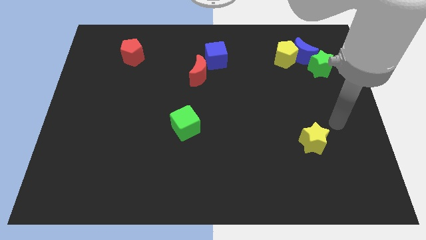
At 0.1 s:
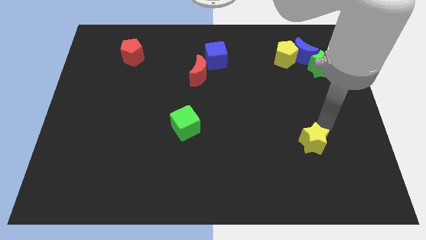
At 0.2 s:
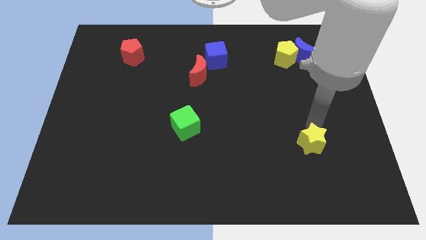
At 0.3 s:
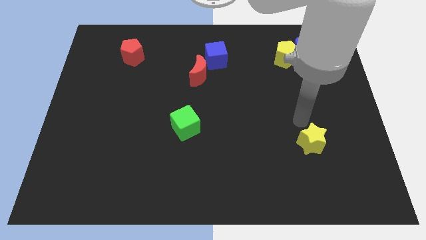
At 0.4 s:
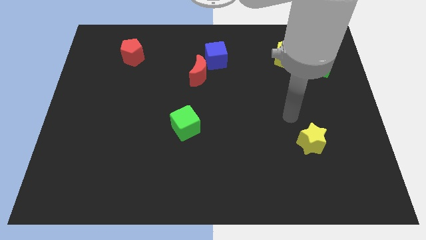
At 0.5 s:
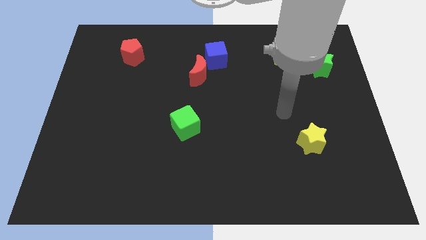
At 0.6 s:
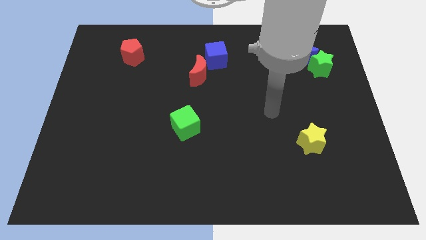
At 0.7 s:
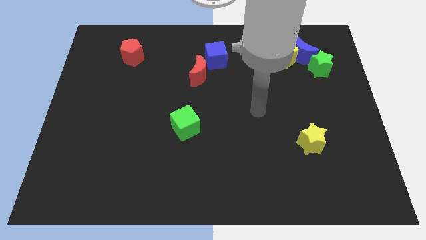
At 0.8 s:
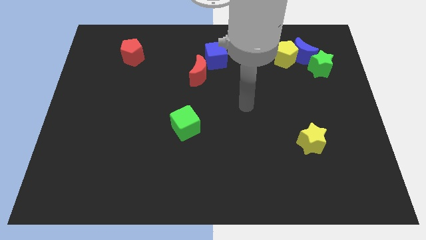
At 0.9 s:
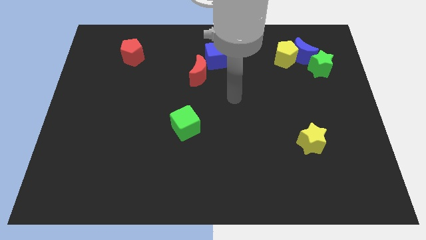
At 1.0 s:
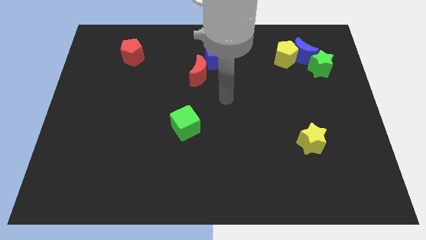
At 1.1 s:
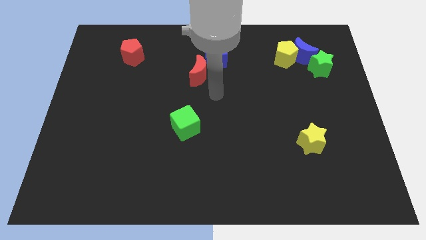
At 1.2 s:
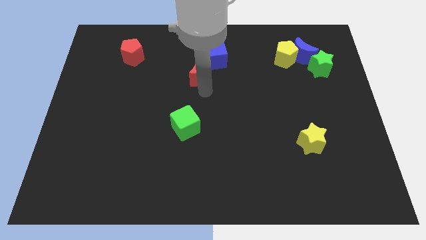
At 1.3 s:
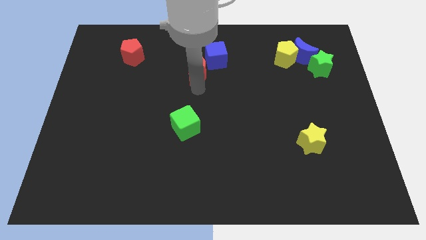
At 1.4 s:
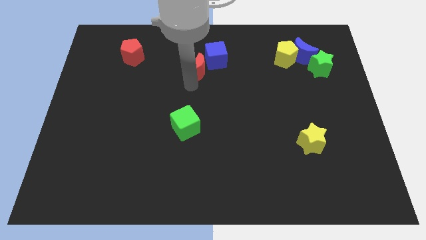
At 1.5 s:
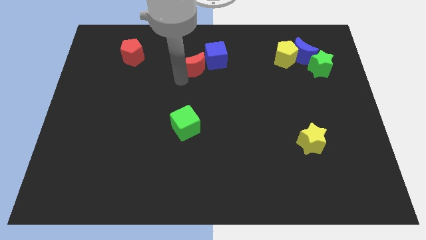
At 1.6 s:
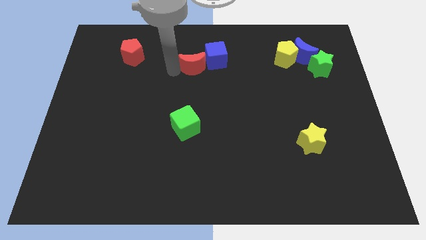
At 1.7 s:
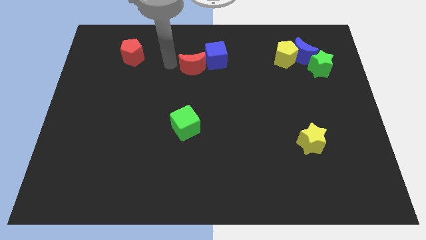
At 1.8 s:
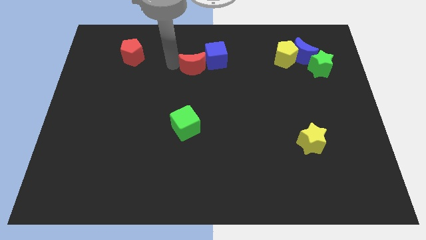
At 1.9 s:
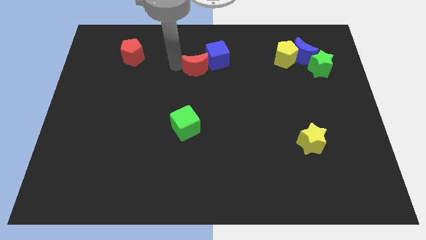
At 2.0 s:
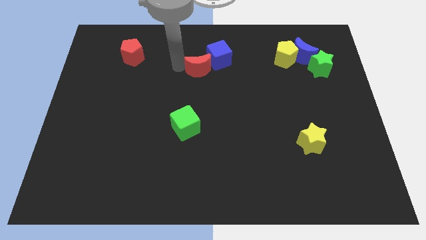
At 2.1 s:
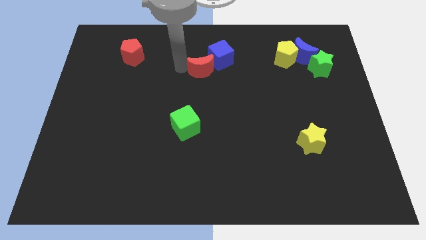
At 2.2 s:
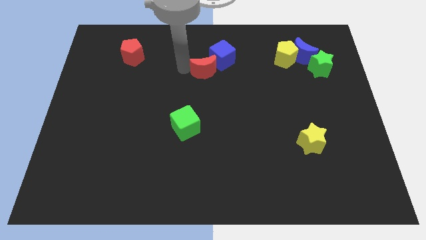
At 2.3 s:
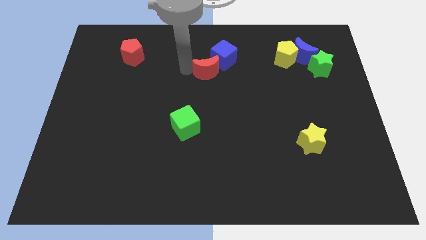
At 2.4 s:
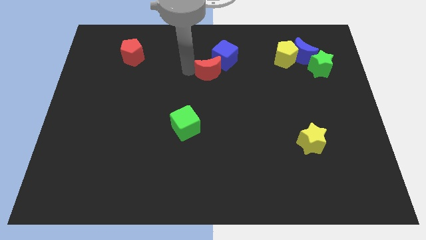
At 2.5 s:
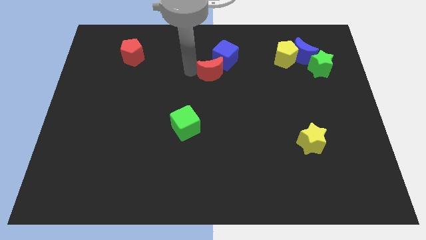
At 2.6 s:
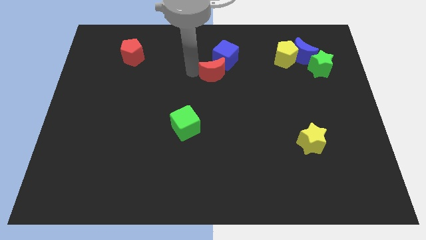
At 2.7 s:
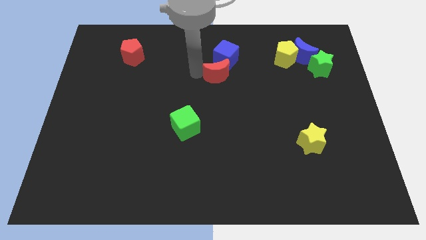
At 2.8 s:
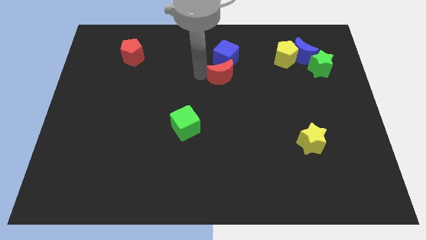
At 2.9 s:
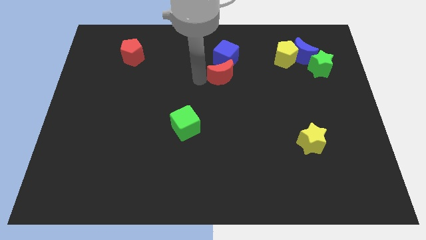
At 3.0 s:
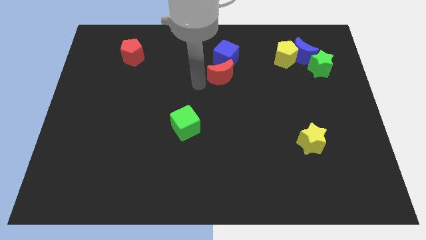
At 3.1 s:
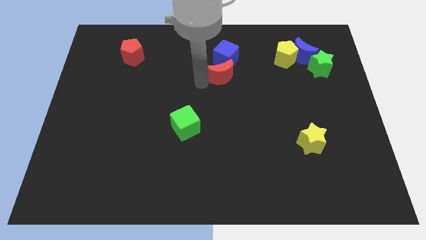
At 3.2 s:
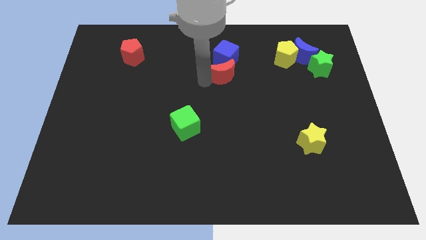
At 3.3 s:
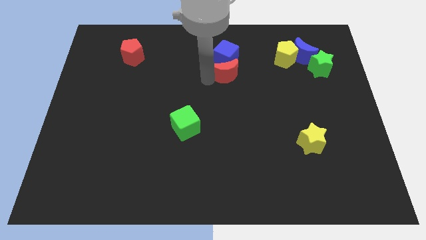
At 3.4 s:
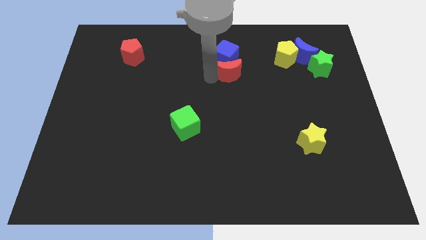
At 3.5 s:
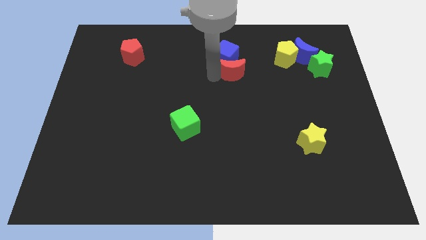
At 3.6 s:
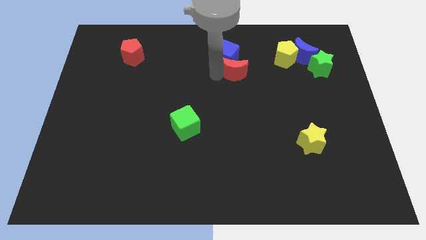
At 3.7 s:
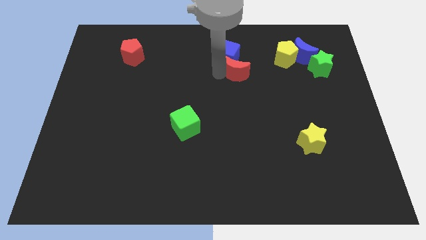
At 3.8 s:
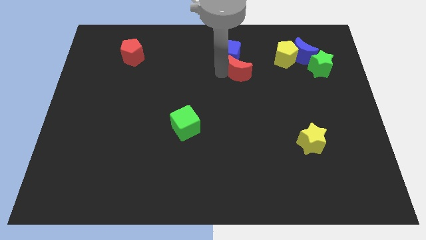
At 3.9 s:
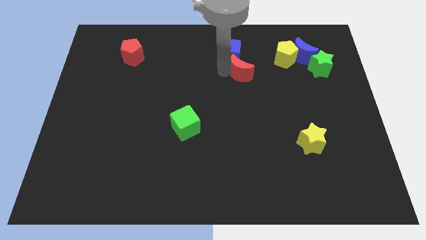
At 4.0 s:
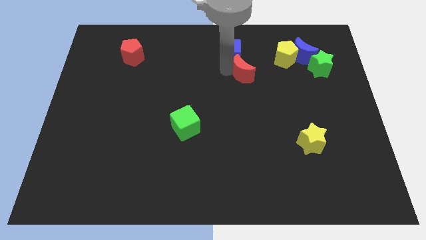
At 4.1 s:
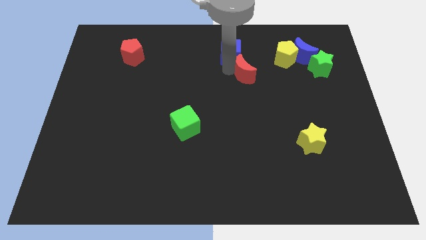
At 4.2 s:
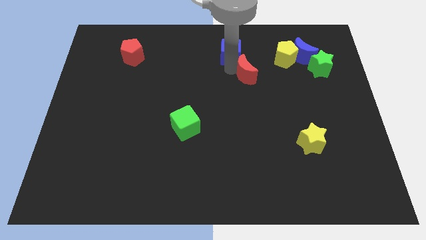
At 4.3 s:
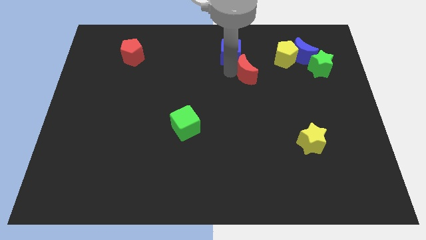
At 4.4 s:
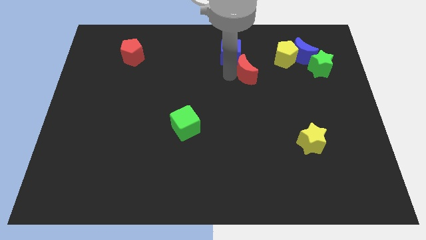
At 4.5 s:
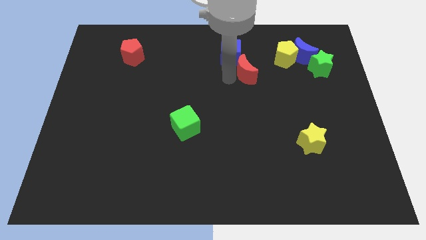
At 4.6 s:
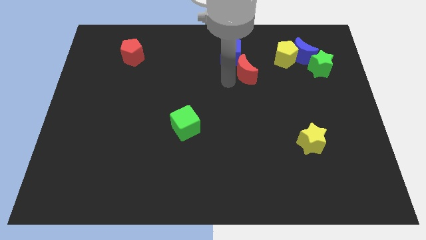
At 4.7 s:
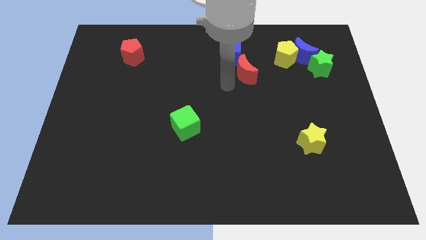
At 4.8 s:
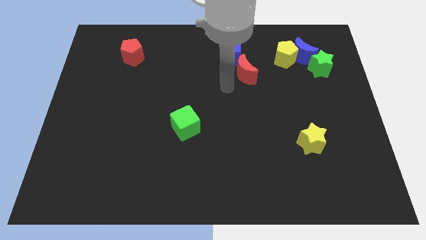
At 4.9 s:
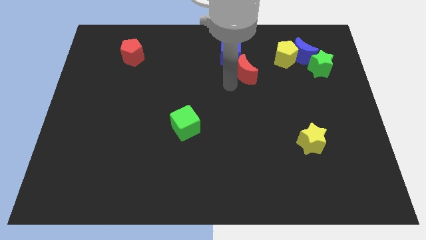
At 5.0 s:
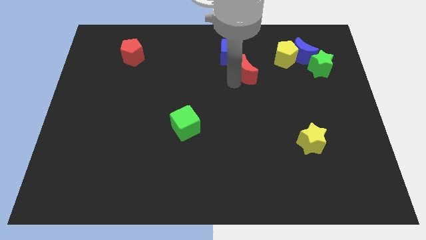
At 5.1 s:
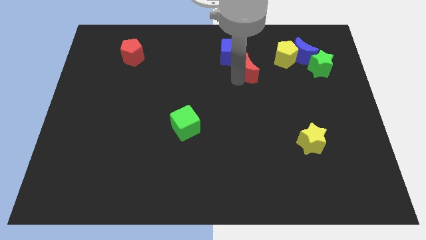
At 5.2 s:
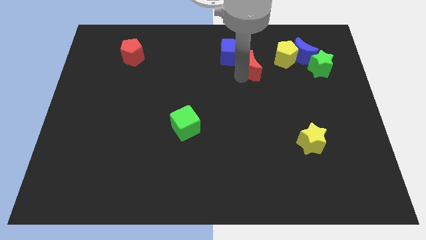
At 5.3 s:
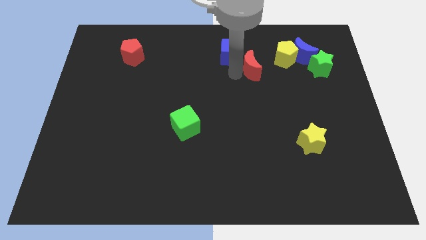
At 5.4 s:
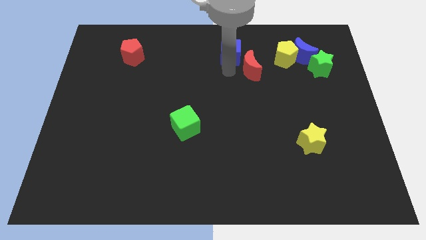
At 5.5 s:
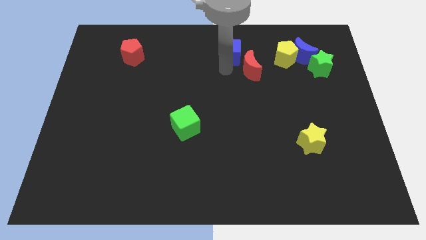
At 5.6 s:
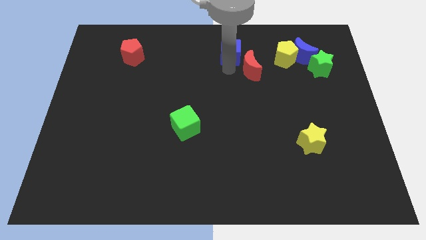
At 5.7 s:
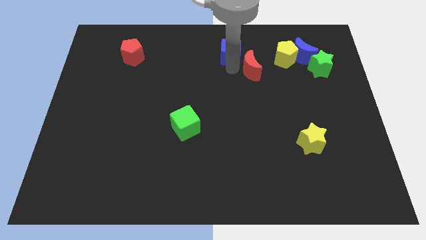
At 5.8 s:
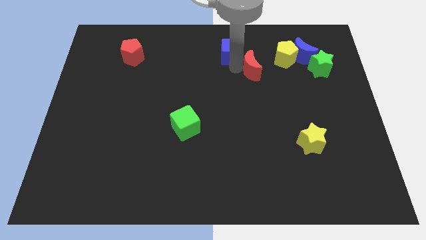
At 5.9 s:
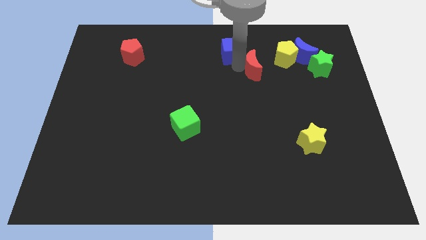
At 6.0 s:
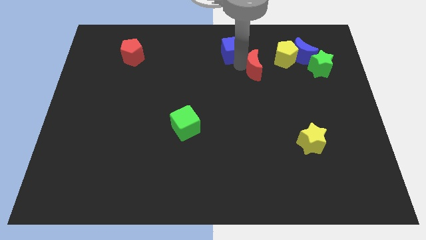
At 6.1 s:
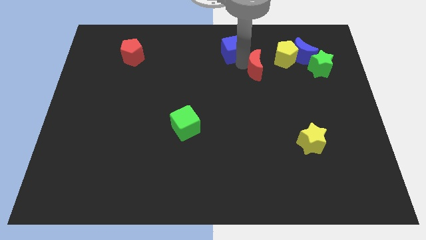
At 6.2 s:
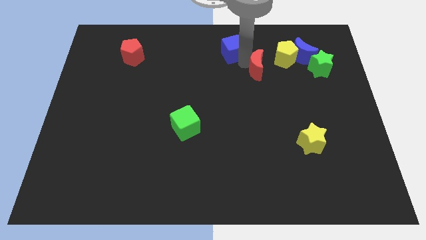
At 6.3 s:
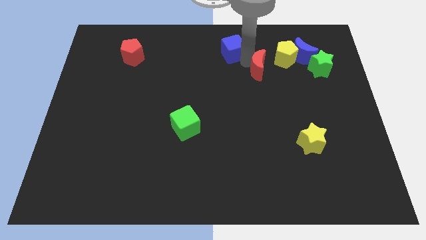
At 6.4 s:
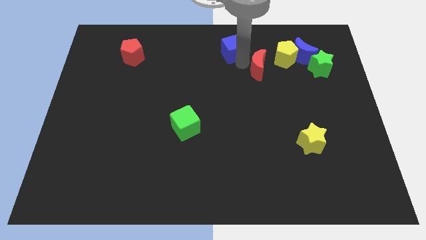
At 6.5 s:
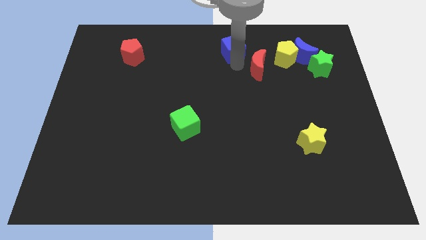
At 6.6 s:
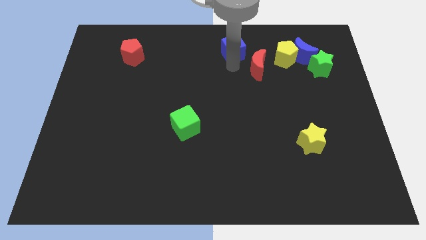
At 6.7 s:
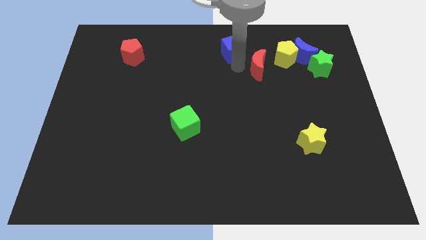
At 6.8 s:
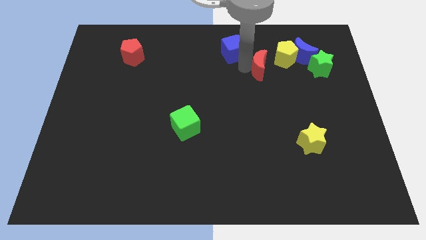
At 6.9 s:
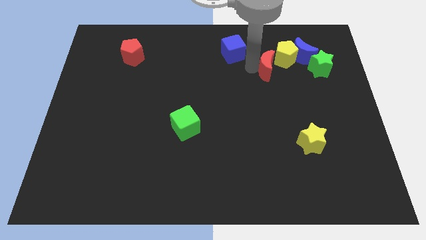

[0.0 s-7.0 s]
push the red moon to the bottom left side of the blue moon
